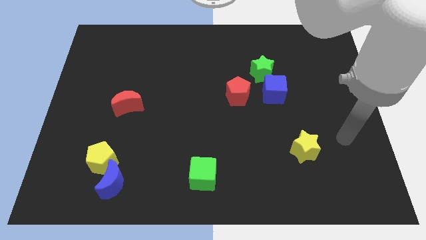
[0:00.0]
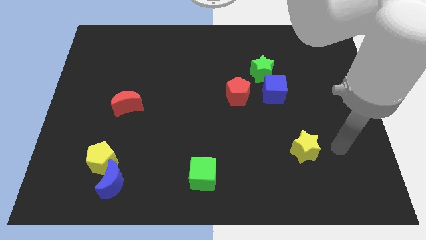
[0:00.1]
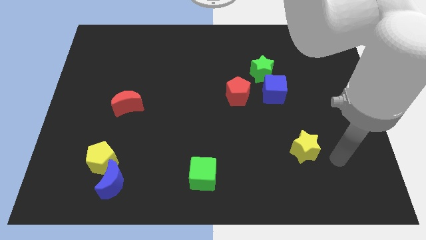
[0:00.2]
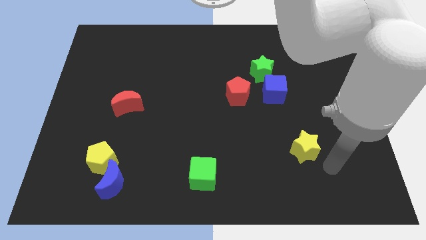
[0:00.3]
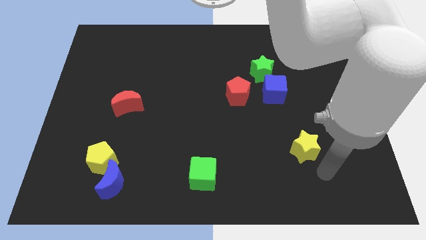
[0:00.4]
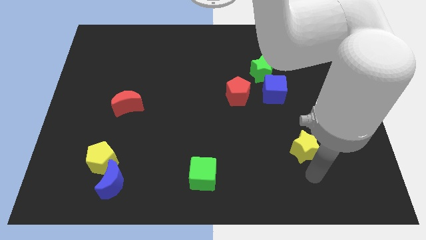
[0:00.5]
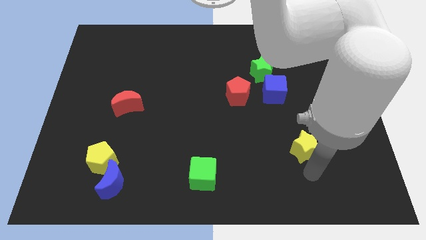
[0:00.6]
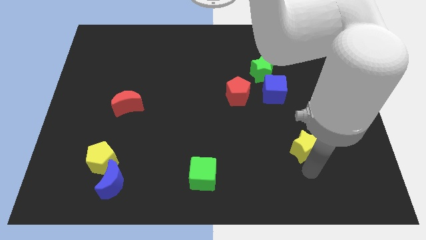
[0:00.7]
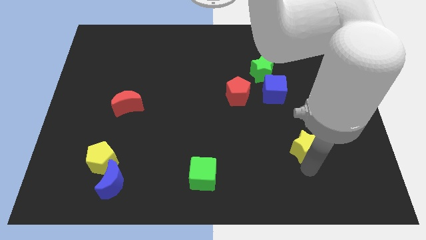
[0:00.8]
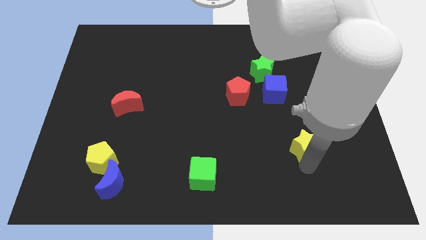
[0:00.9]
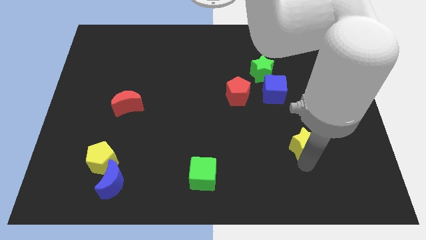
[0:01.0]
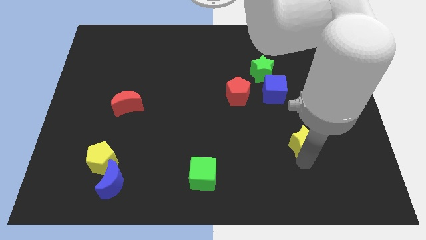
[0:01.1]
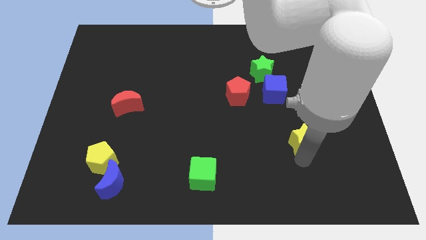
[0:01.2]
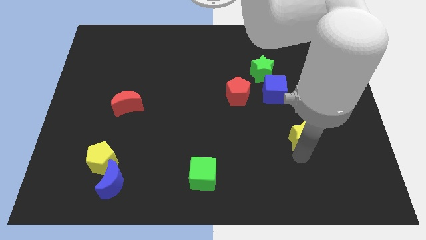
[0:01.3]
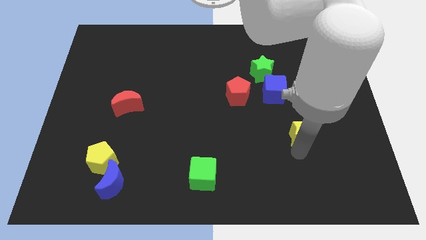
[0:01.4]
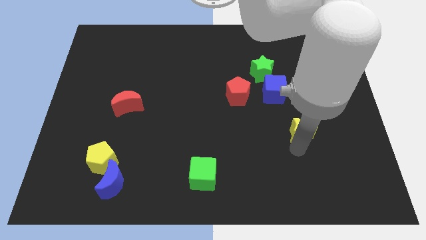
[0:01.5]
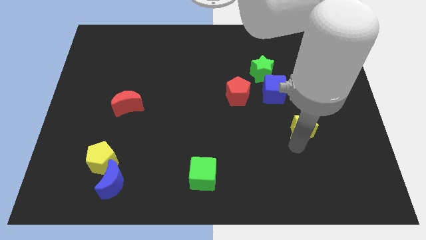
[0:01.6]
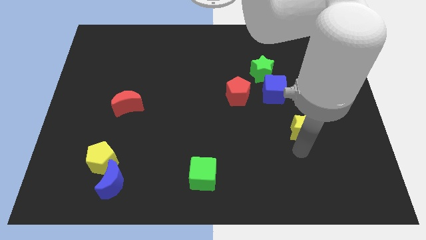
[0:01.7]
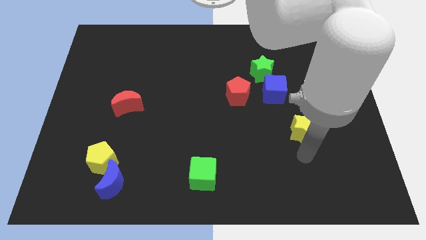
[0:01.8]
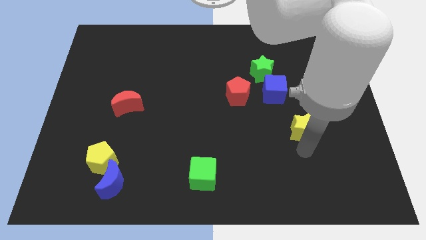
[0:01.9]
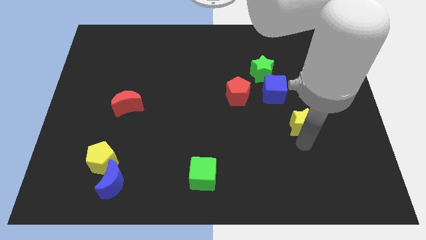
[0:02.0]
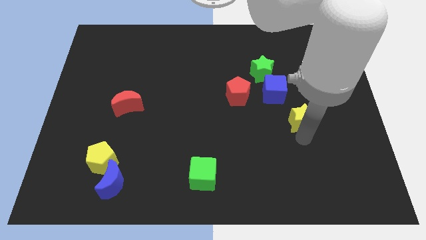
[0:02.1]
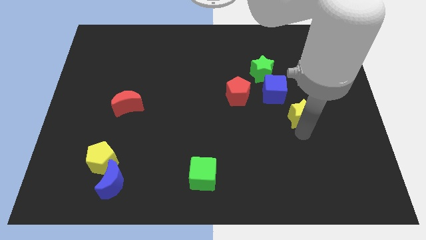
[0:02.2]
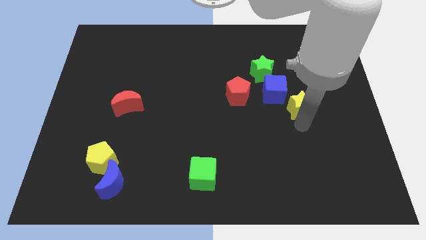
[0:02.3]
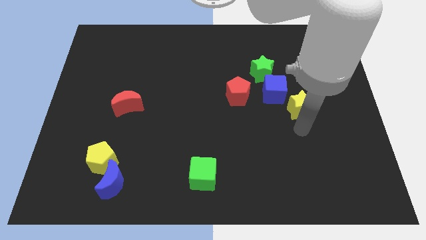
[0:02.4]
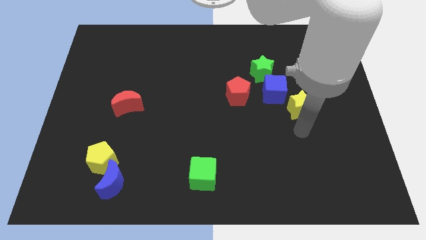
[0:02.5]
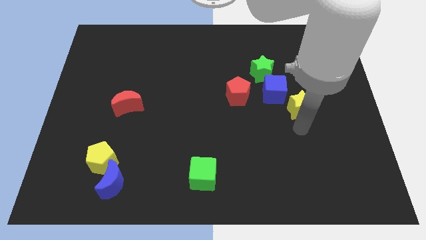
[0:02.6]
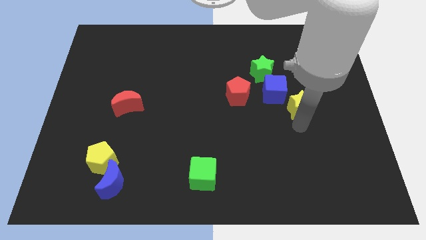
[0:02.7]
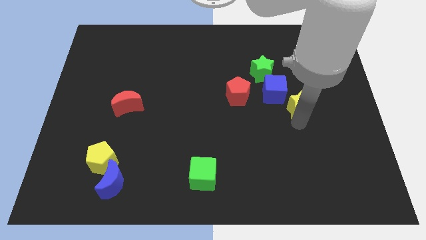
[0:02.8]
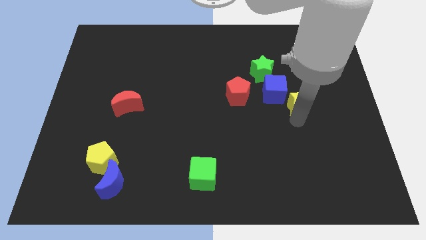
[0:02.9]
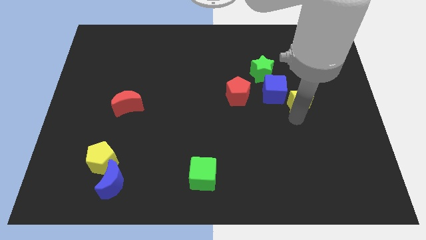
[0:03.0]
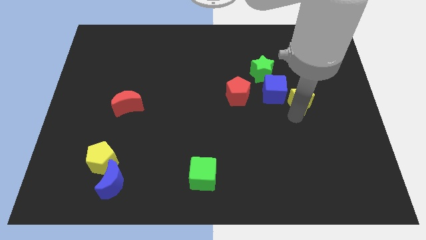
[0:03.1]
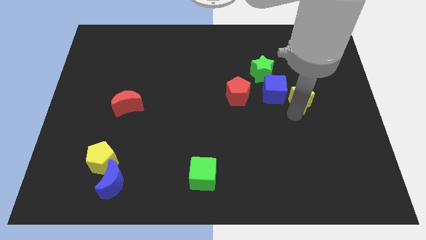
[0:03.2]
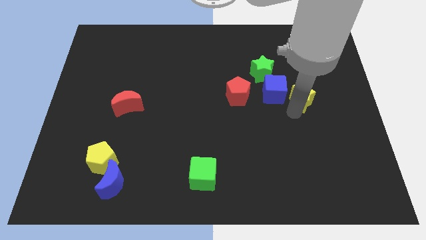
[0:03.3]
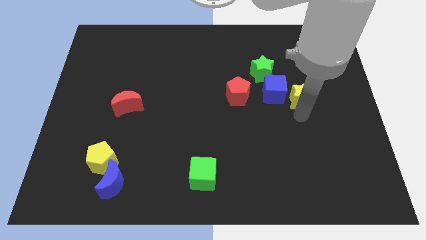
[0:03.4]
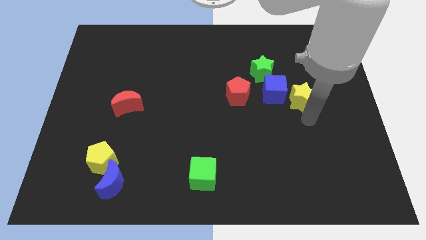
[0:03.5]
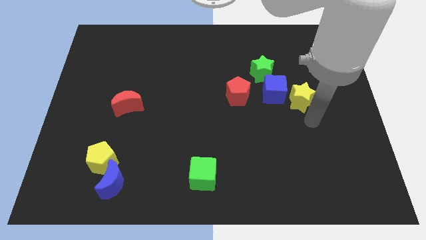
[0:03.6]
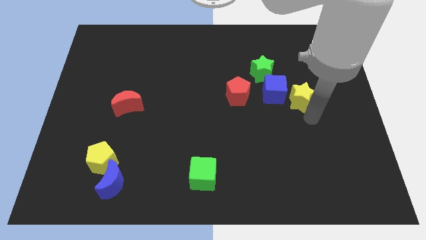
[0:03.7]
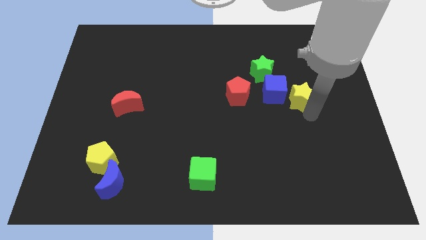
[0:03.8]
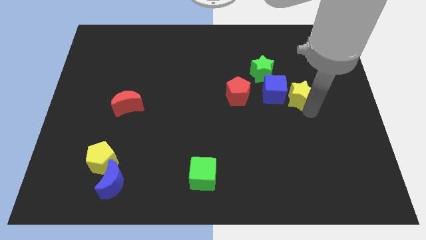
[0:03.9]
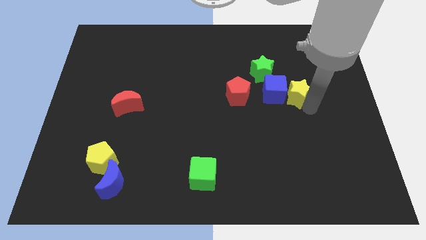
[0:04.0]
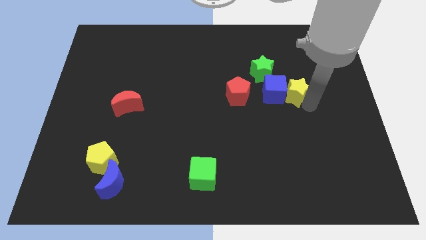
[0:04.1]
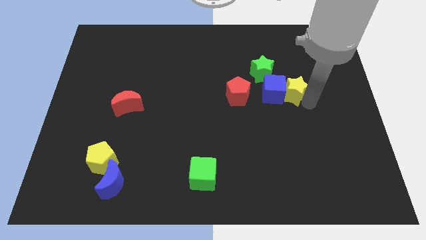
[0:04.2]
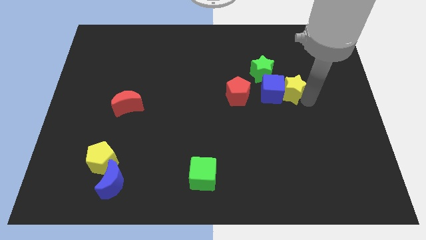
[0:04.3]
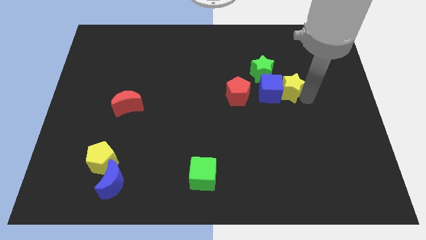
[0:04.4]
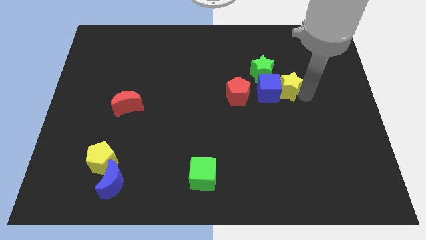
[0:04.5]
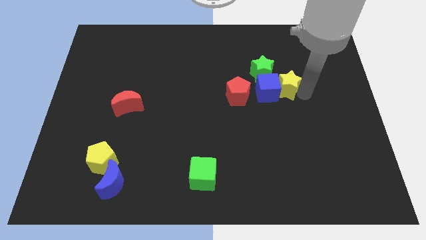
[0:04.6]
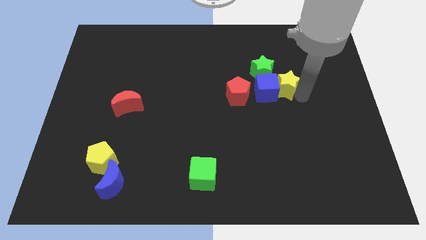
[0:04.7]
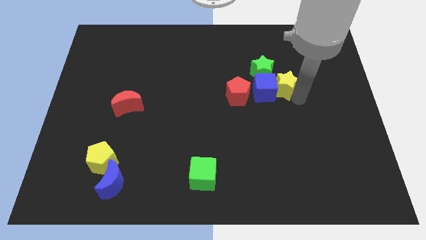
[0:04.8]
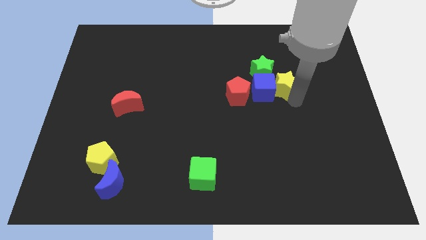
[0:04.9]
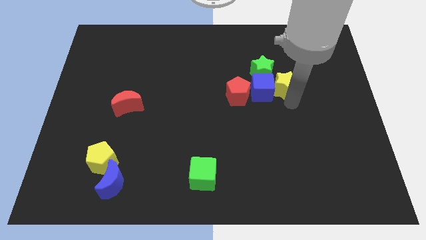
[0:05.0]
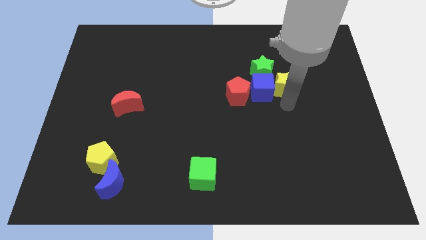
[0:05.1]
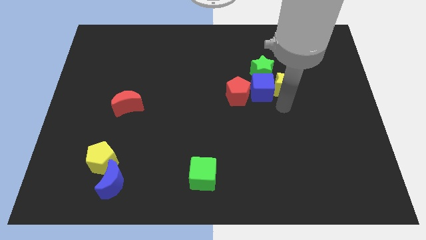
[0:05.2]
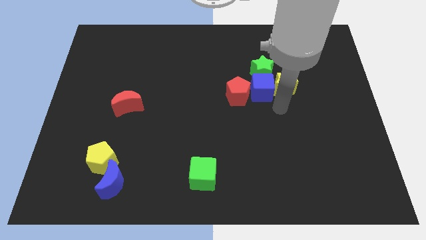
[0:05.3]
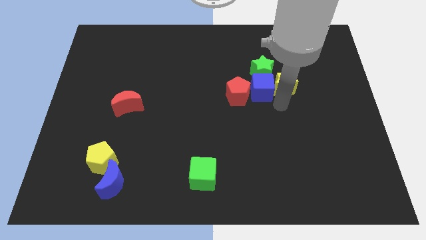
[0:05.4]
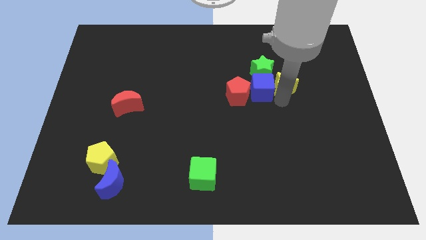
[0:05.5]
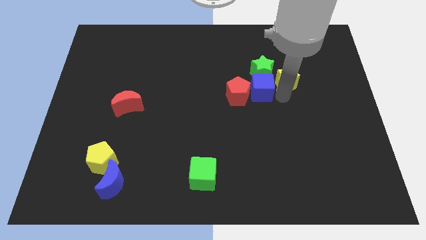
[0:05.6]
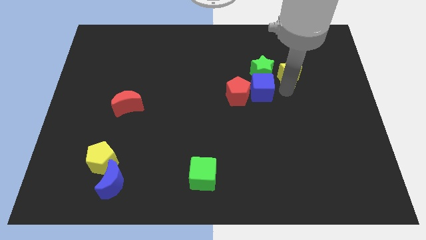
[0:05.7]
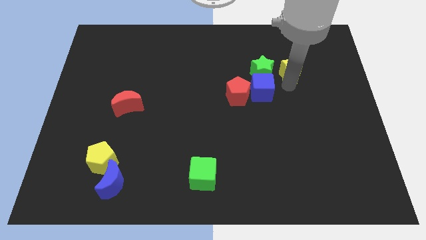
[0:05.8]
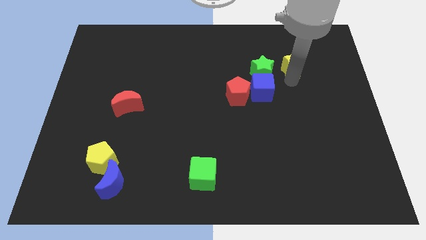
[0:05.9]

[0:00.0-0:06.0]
put the yellow star to the top right side of the green star
